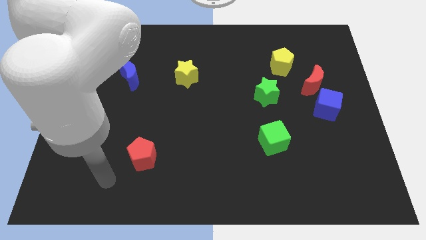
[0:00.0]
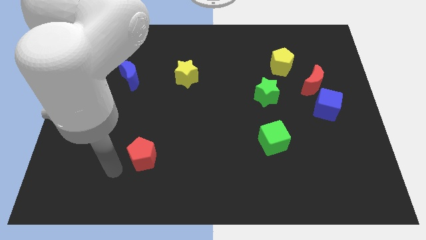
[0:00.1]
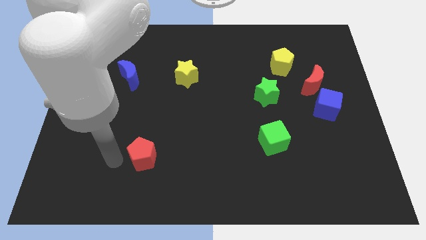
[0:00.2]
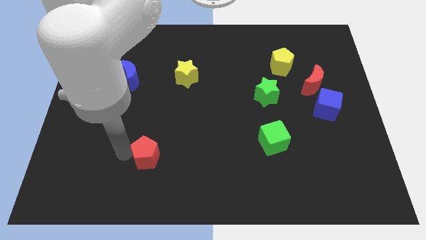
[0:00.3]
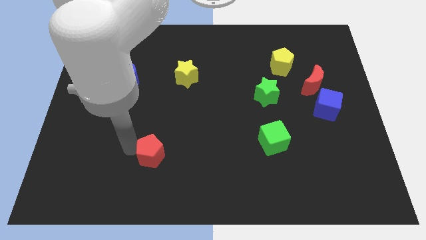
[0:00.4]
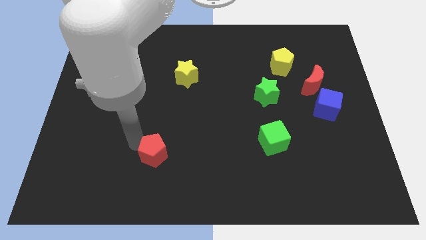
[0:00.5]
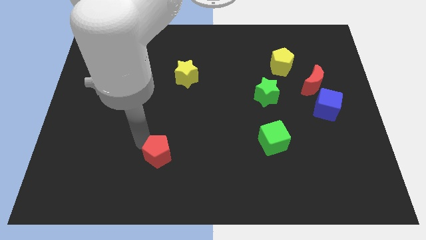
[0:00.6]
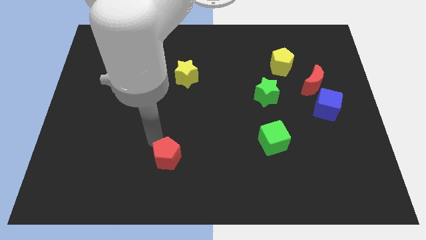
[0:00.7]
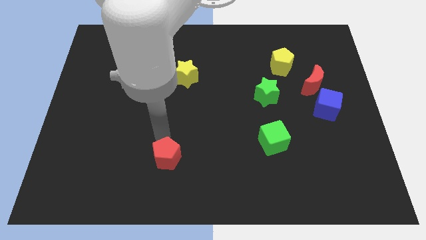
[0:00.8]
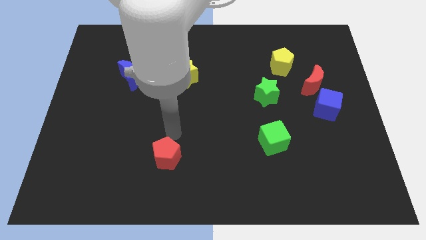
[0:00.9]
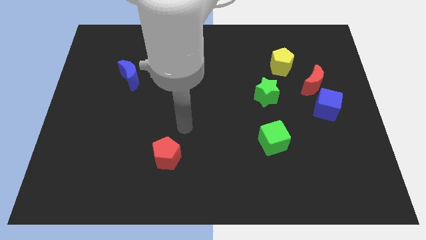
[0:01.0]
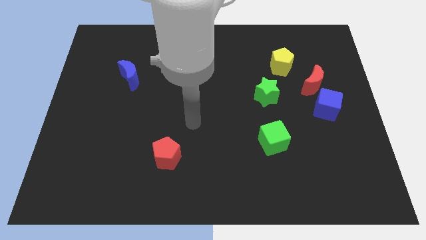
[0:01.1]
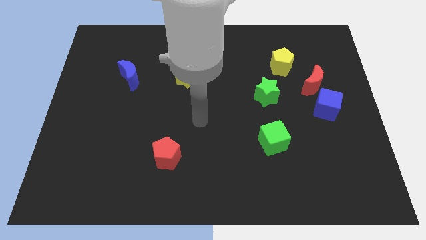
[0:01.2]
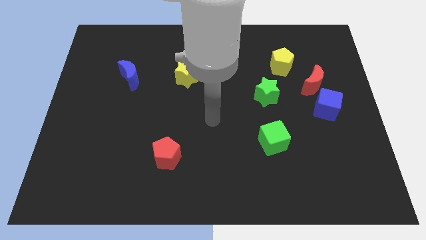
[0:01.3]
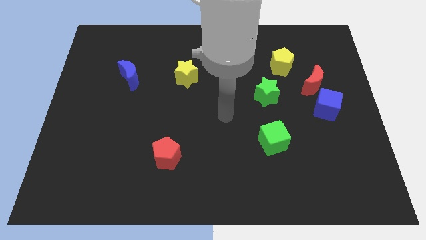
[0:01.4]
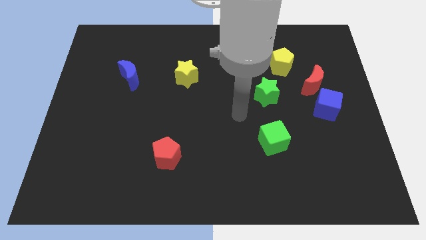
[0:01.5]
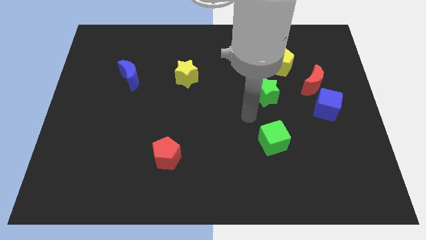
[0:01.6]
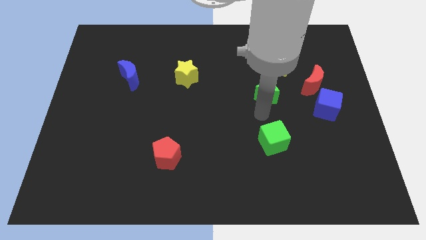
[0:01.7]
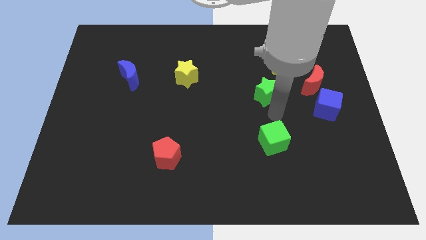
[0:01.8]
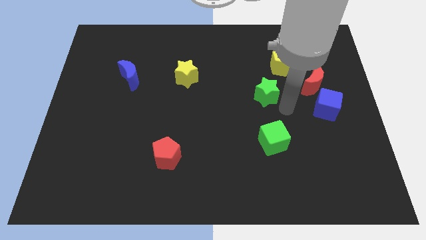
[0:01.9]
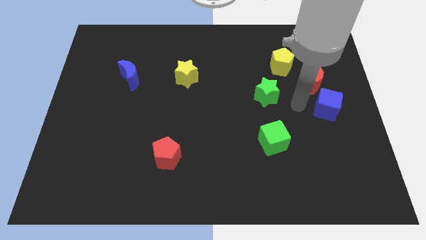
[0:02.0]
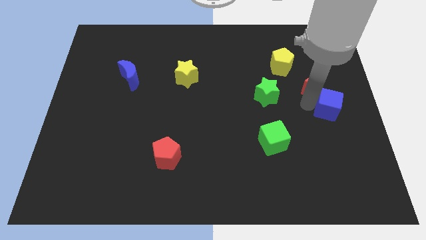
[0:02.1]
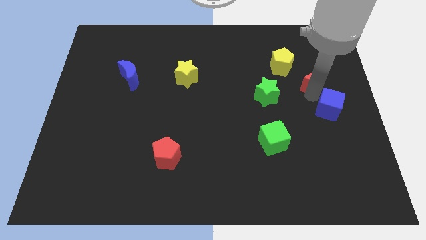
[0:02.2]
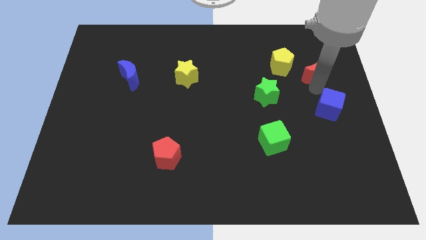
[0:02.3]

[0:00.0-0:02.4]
pull the blue cube apart from the red moon

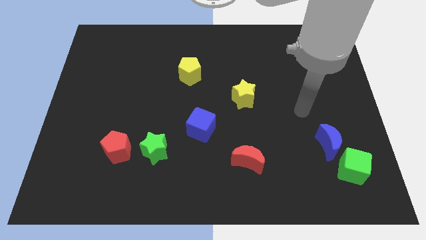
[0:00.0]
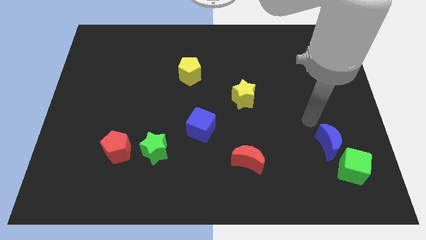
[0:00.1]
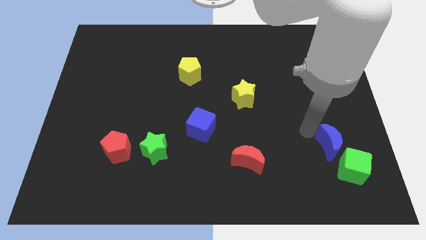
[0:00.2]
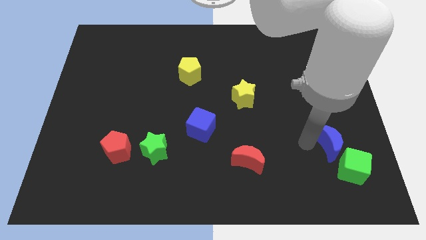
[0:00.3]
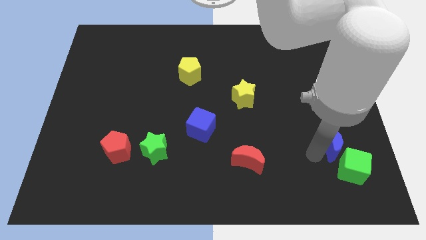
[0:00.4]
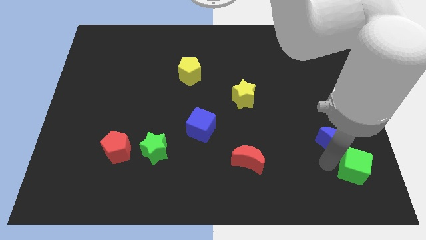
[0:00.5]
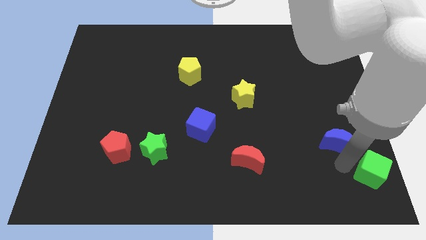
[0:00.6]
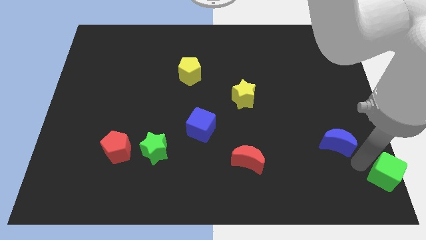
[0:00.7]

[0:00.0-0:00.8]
pull the blue moon apart from the green cube

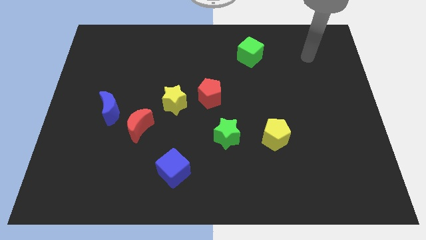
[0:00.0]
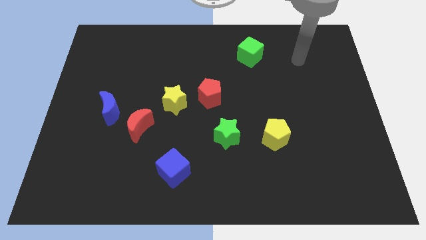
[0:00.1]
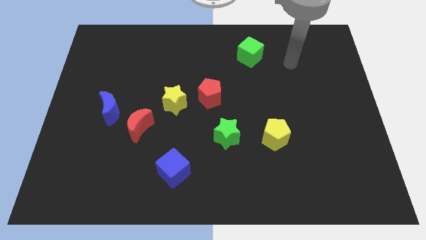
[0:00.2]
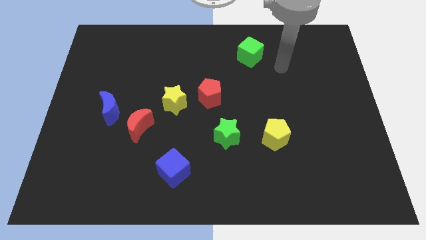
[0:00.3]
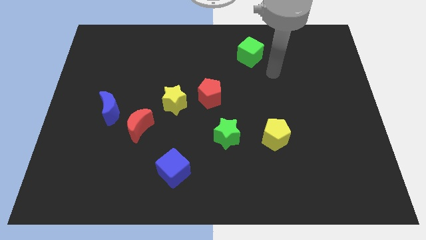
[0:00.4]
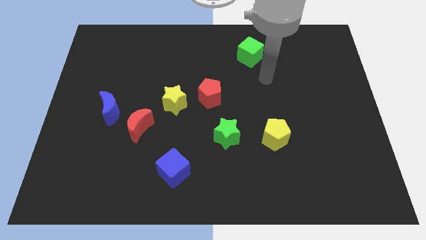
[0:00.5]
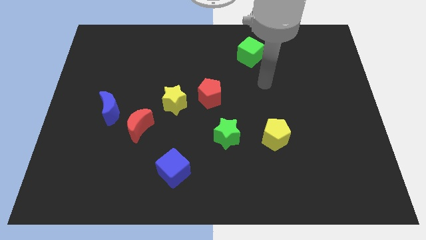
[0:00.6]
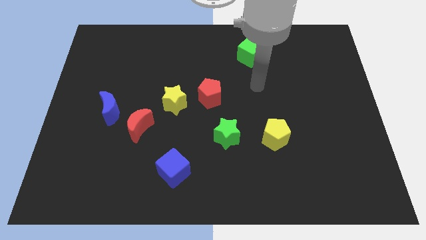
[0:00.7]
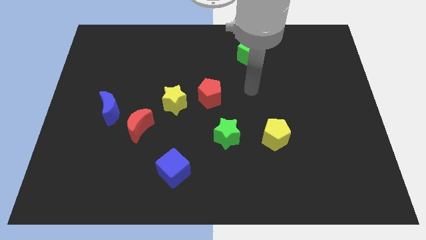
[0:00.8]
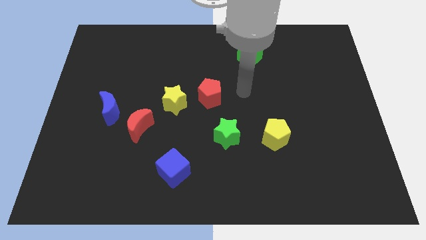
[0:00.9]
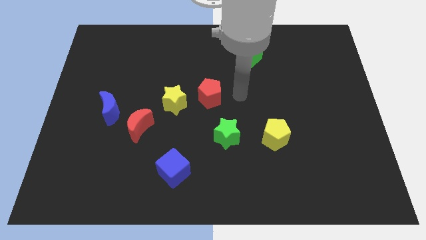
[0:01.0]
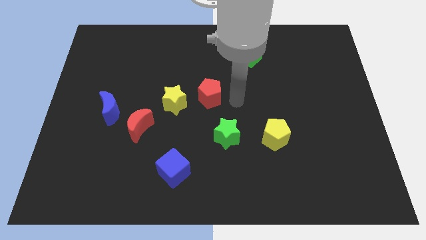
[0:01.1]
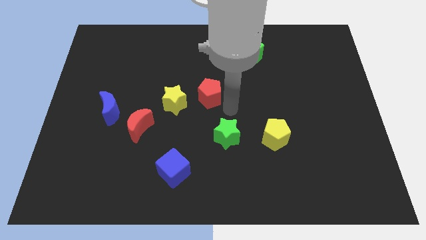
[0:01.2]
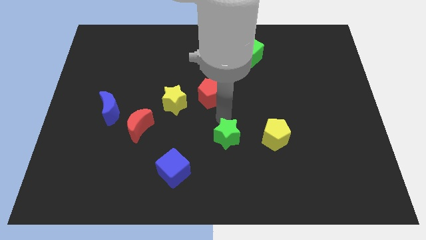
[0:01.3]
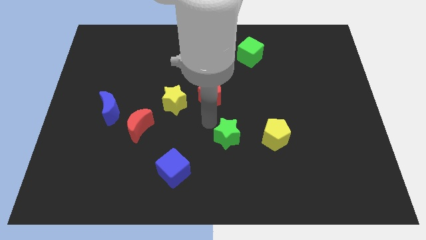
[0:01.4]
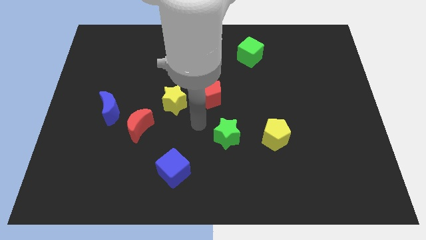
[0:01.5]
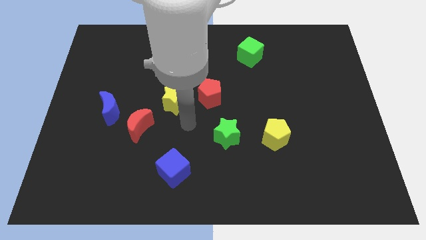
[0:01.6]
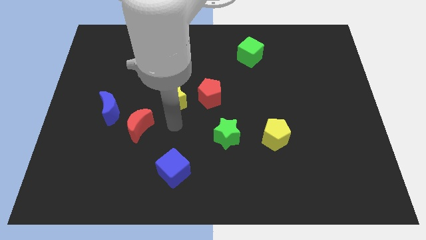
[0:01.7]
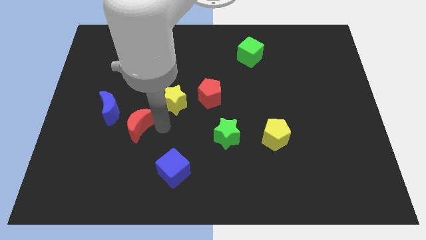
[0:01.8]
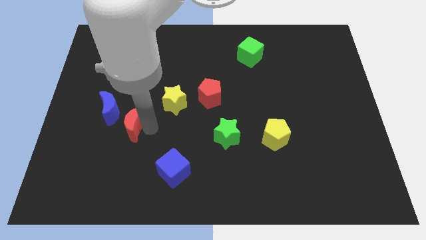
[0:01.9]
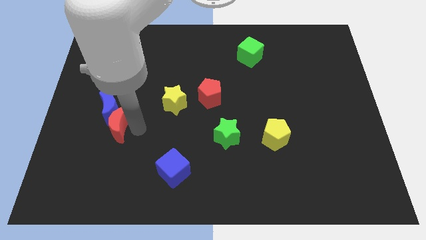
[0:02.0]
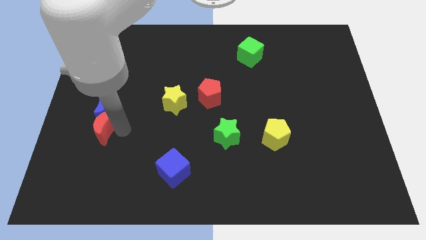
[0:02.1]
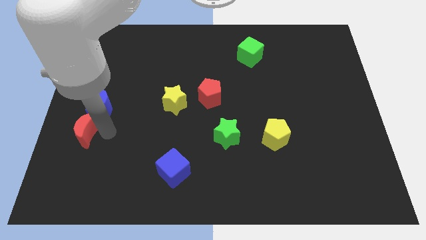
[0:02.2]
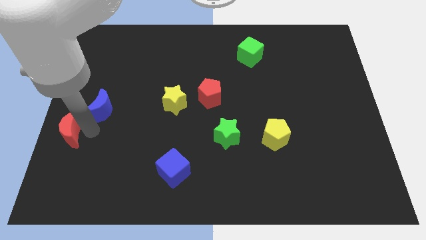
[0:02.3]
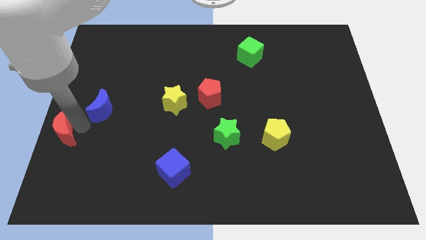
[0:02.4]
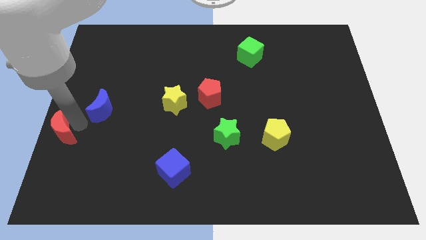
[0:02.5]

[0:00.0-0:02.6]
separate the blue moon from the red moon

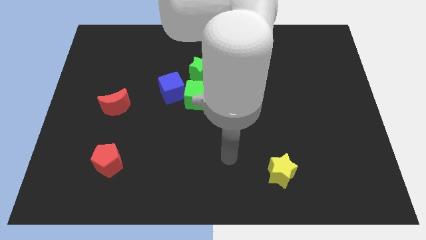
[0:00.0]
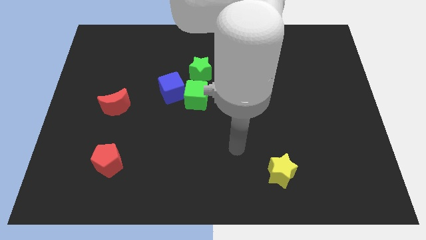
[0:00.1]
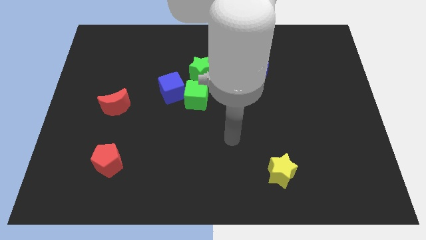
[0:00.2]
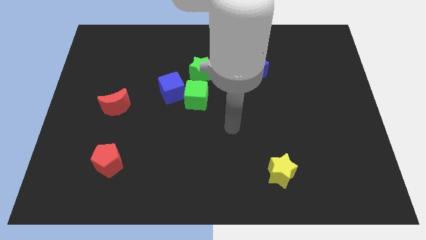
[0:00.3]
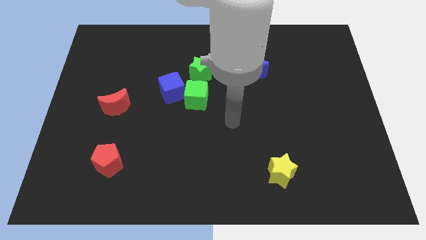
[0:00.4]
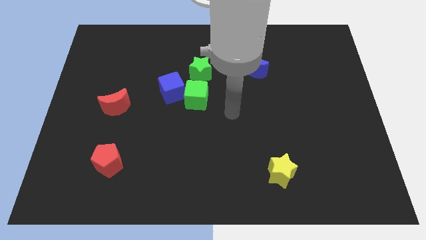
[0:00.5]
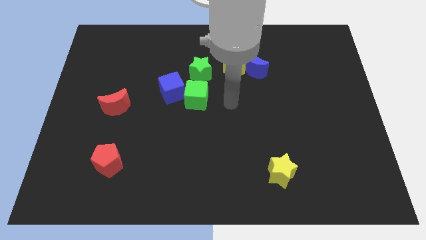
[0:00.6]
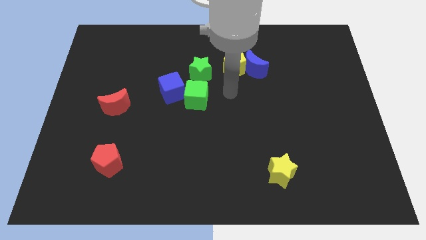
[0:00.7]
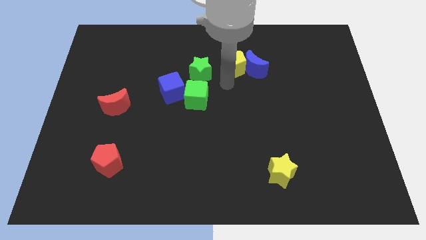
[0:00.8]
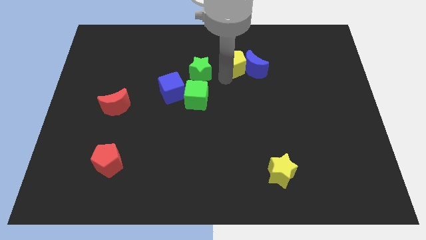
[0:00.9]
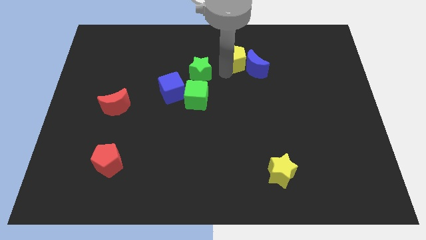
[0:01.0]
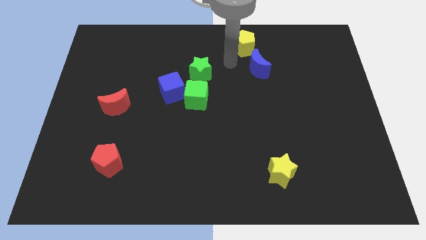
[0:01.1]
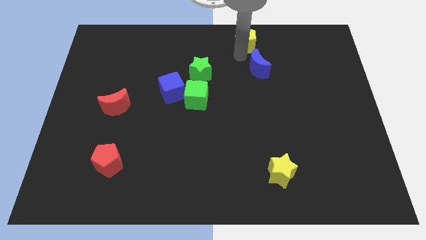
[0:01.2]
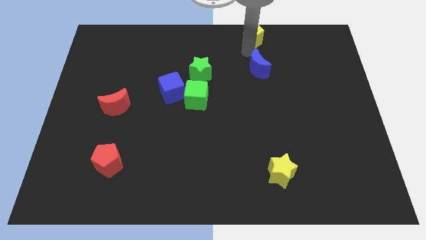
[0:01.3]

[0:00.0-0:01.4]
move the blue moon away from the yellow pentagon

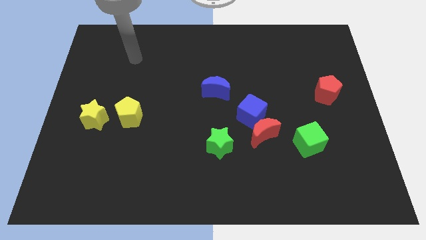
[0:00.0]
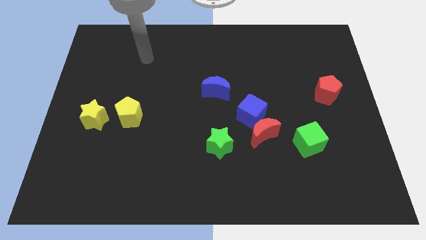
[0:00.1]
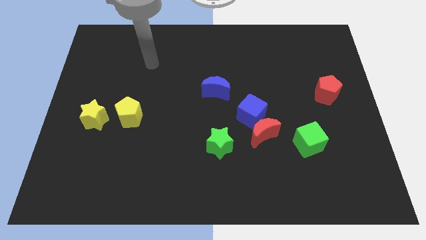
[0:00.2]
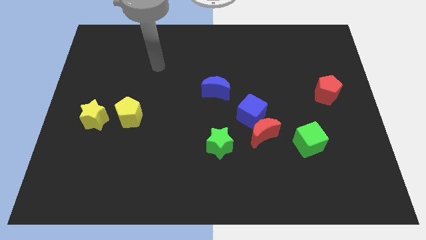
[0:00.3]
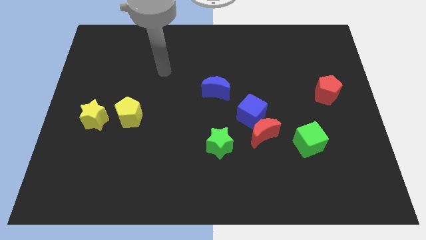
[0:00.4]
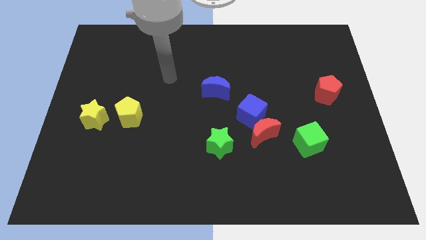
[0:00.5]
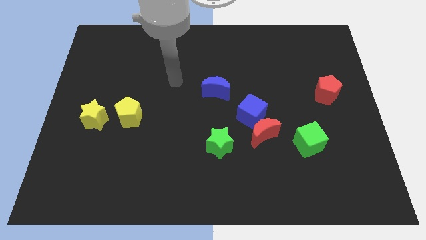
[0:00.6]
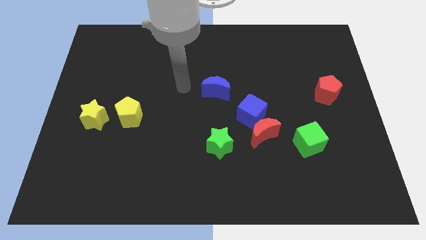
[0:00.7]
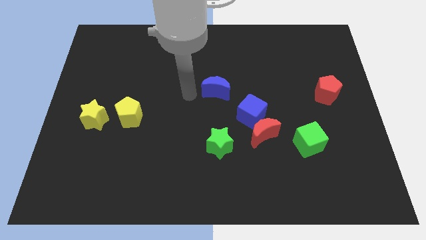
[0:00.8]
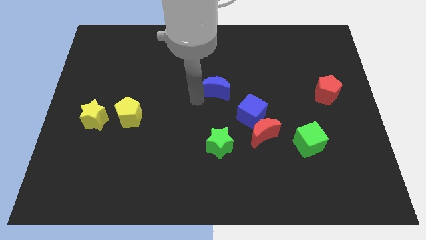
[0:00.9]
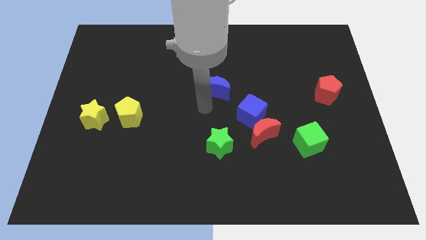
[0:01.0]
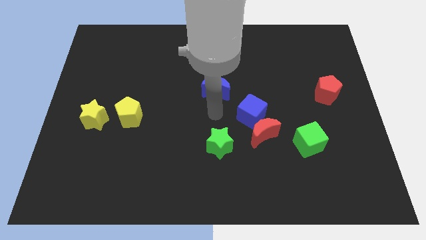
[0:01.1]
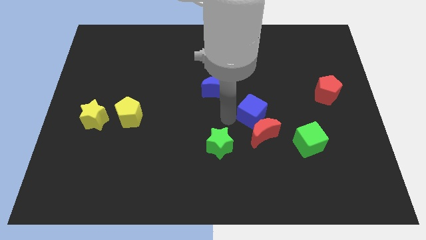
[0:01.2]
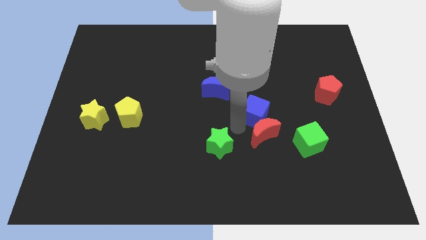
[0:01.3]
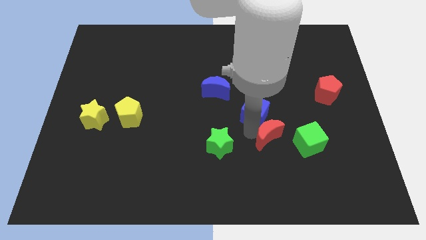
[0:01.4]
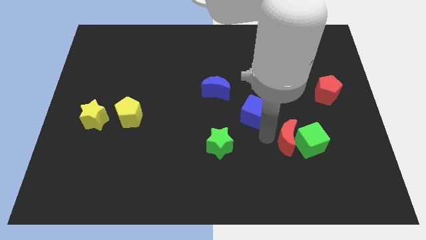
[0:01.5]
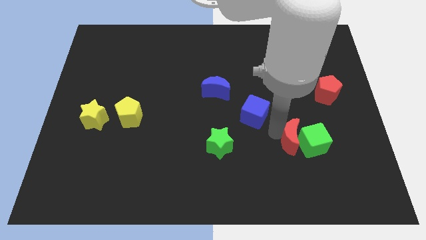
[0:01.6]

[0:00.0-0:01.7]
separate the blue cube from the red moon

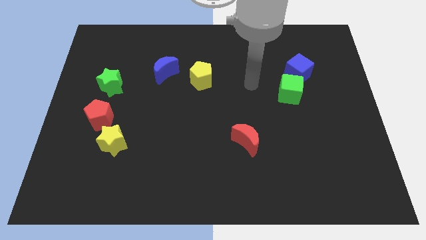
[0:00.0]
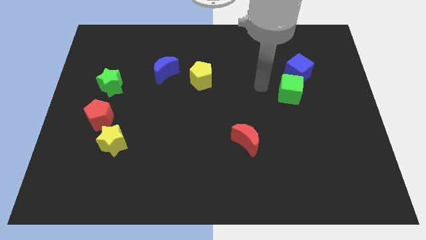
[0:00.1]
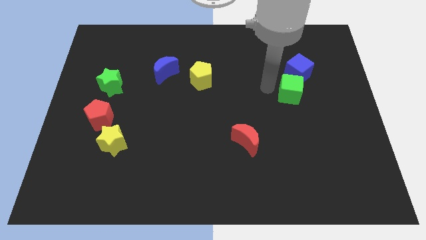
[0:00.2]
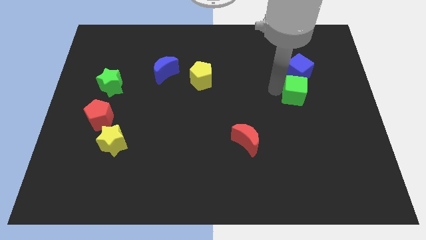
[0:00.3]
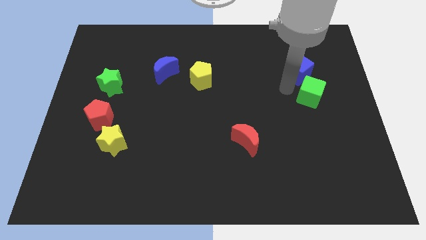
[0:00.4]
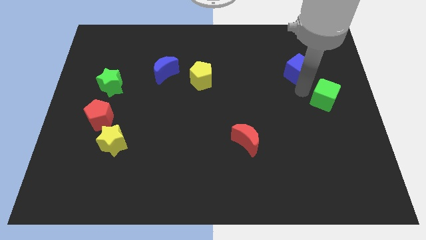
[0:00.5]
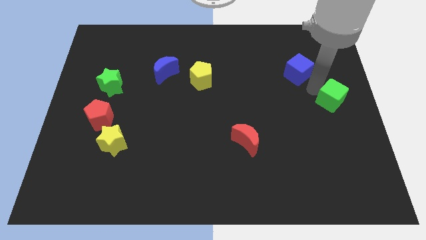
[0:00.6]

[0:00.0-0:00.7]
pull the blue cube apart from the green cube
